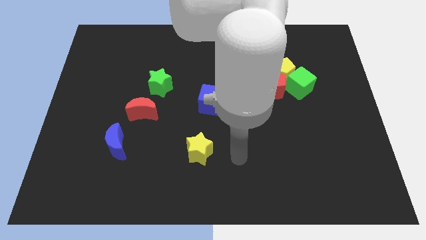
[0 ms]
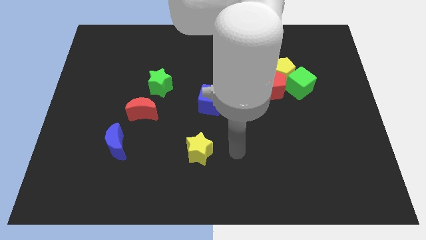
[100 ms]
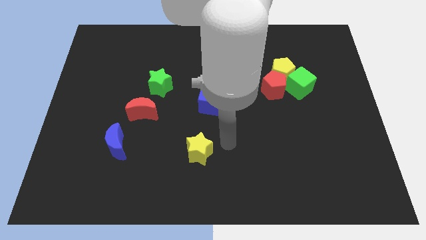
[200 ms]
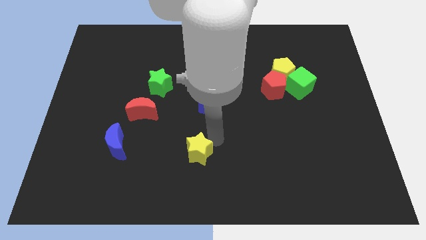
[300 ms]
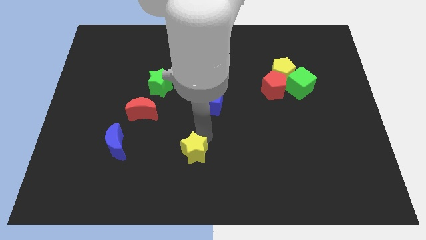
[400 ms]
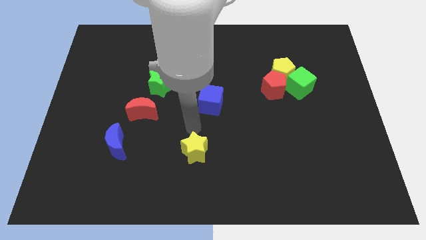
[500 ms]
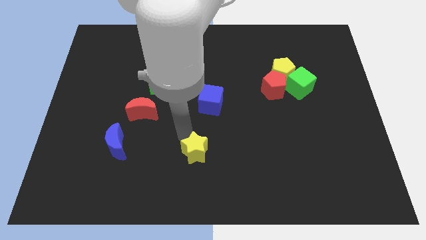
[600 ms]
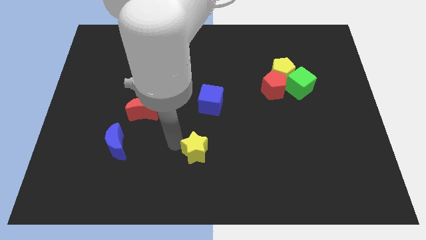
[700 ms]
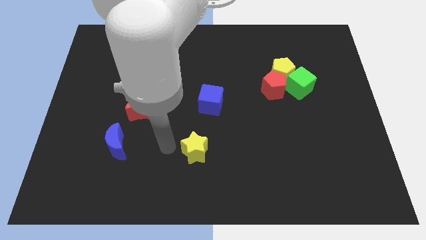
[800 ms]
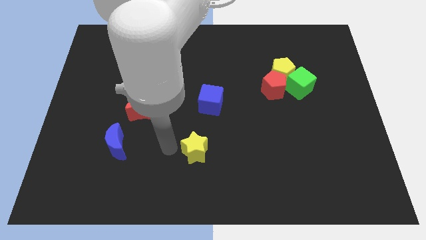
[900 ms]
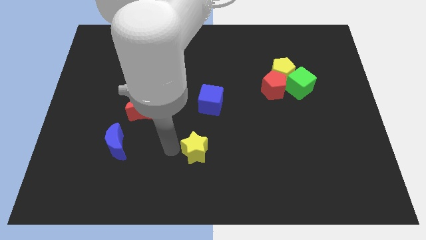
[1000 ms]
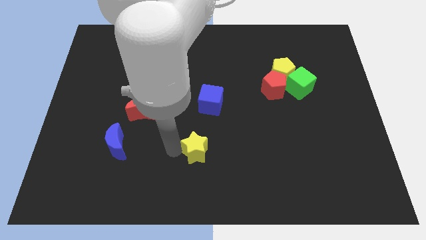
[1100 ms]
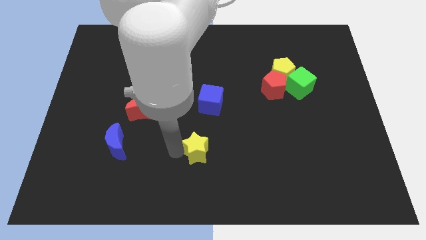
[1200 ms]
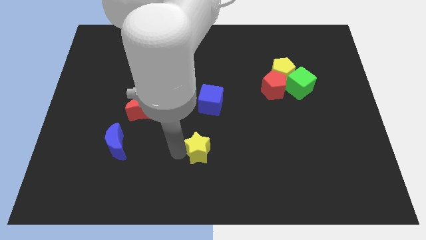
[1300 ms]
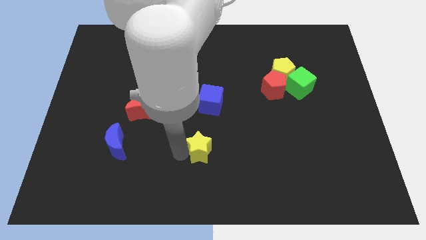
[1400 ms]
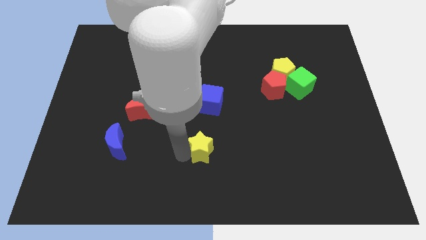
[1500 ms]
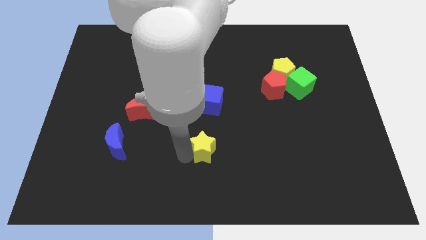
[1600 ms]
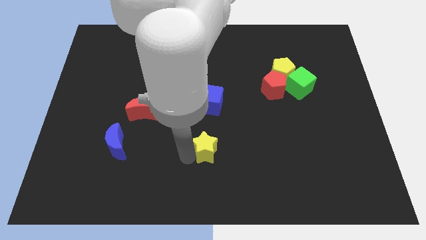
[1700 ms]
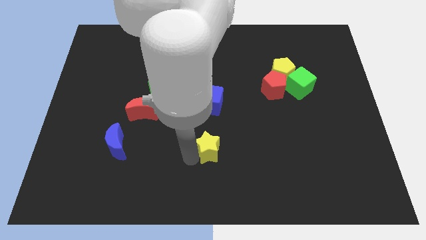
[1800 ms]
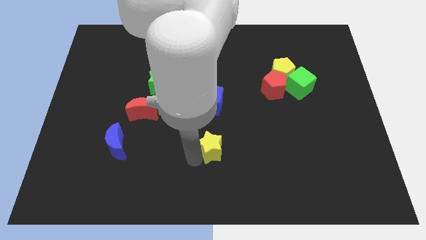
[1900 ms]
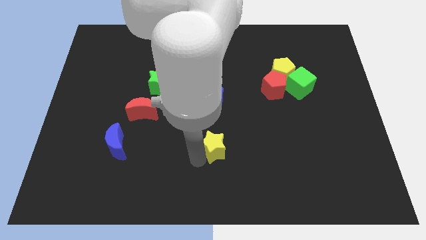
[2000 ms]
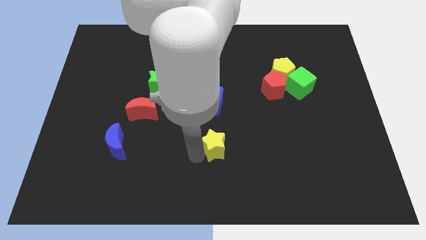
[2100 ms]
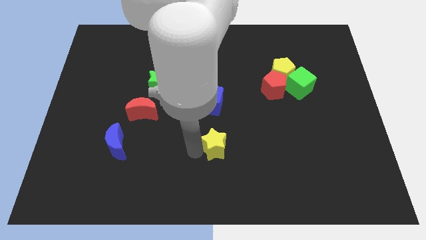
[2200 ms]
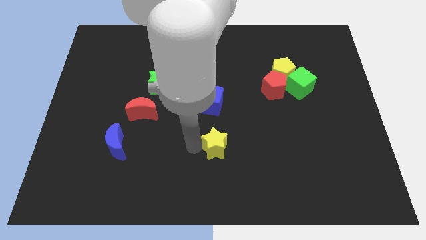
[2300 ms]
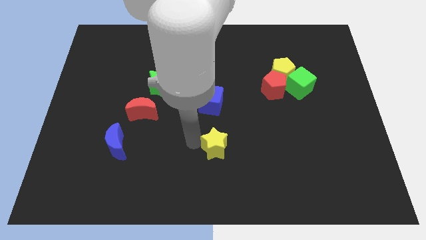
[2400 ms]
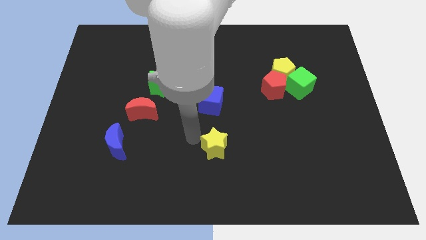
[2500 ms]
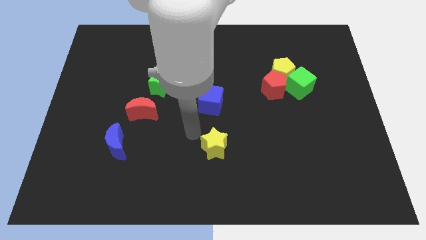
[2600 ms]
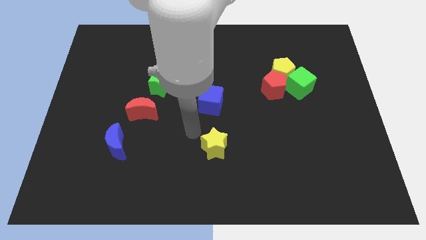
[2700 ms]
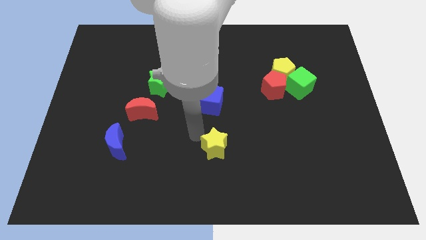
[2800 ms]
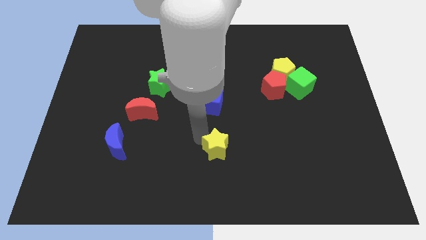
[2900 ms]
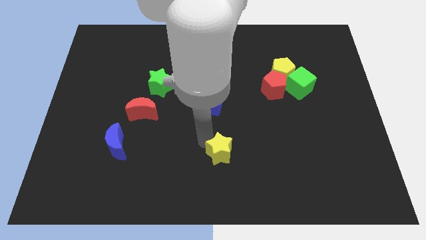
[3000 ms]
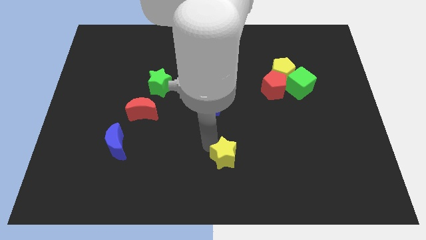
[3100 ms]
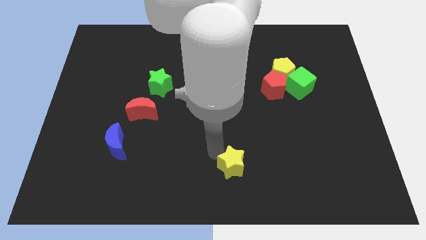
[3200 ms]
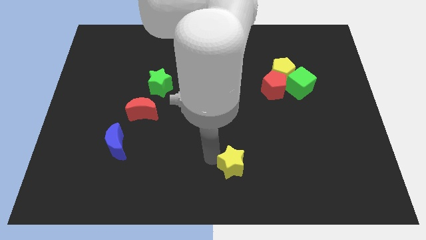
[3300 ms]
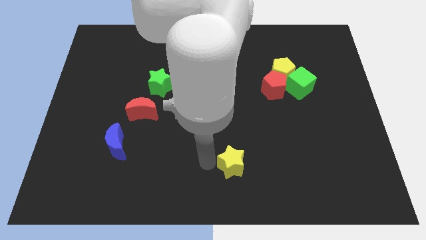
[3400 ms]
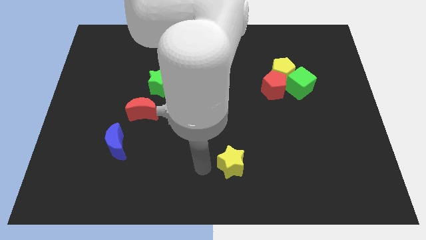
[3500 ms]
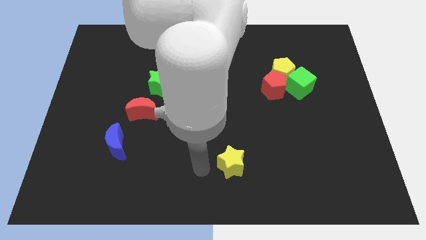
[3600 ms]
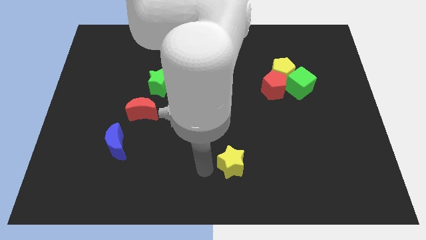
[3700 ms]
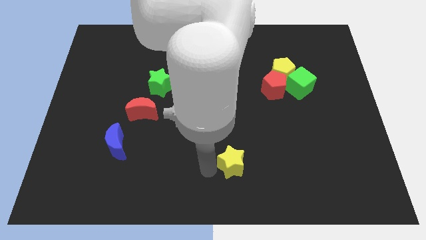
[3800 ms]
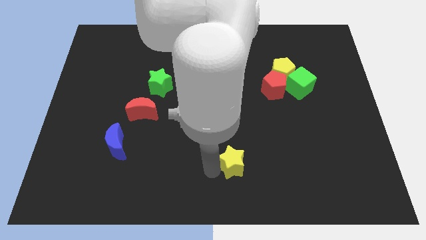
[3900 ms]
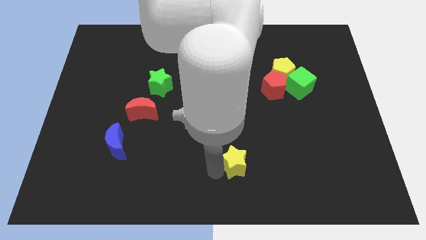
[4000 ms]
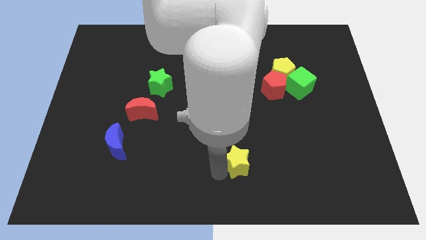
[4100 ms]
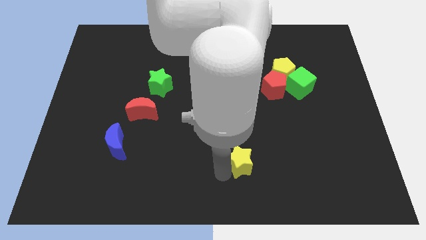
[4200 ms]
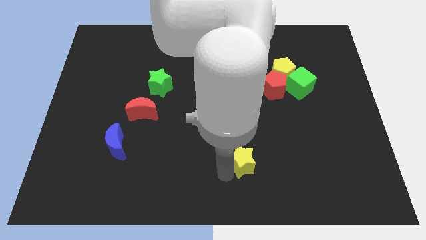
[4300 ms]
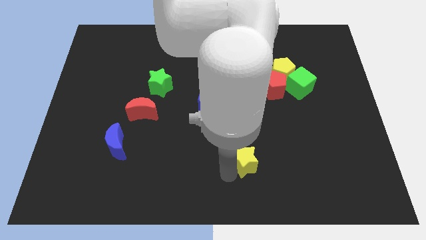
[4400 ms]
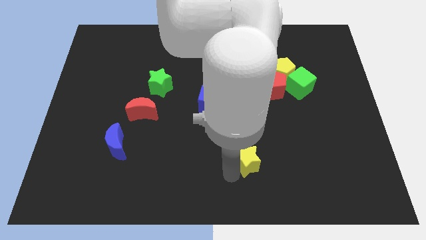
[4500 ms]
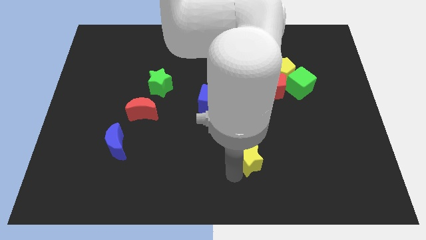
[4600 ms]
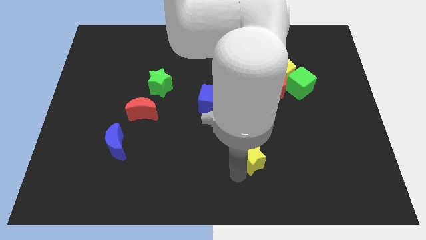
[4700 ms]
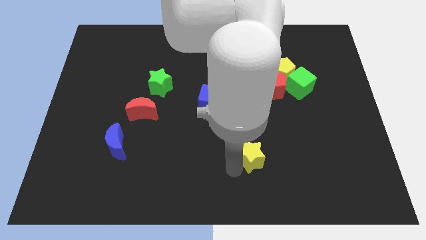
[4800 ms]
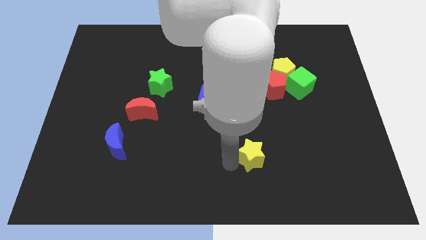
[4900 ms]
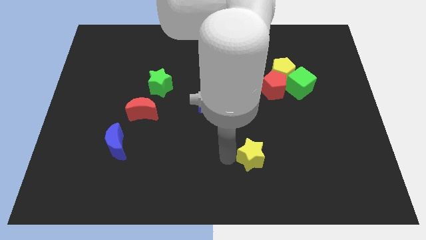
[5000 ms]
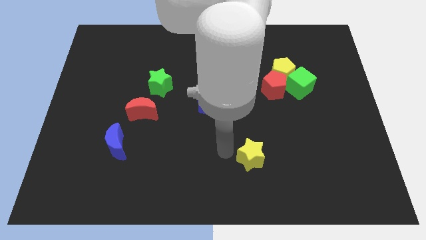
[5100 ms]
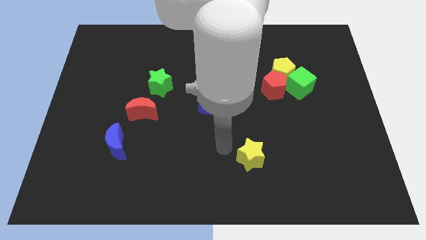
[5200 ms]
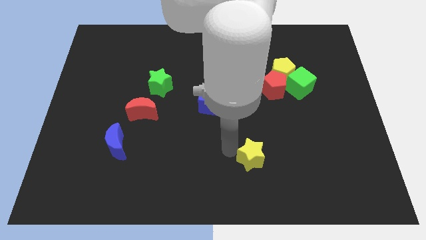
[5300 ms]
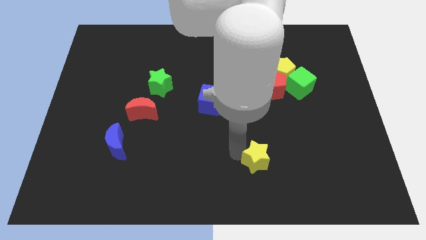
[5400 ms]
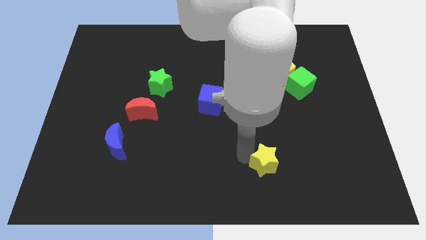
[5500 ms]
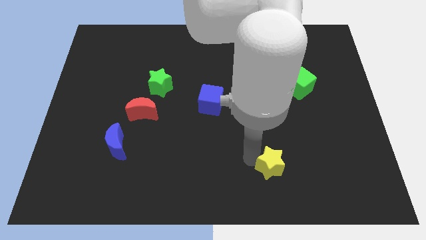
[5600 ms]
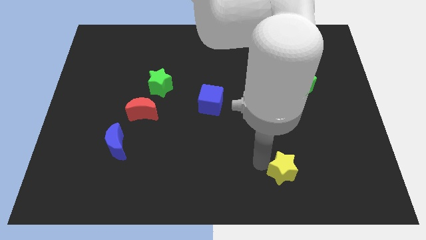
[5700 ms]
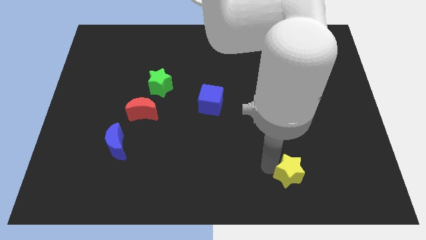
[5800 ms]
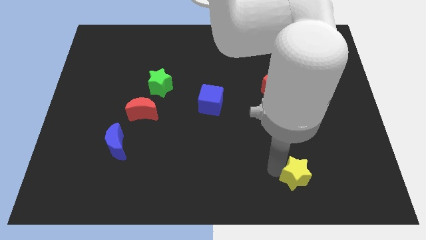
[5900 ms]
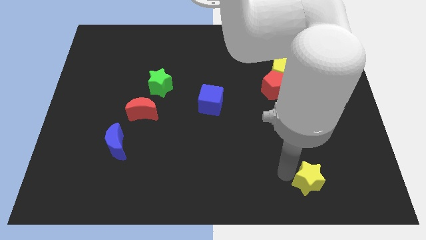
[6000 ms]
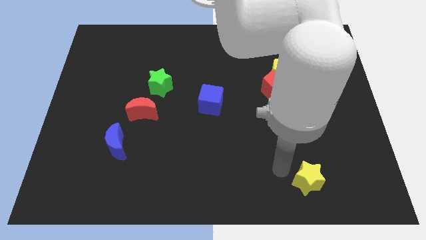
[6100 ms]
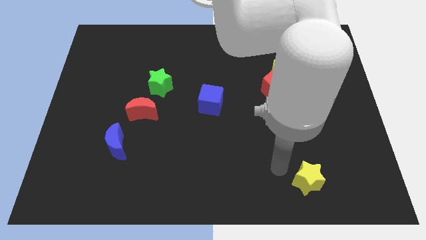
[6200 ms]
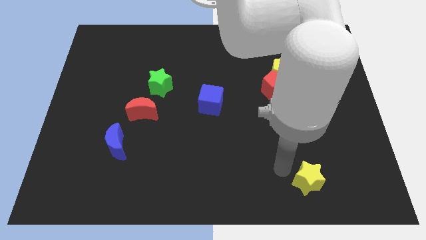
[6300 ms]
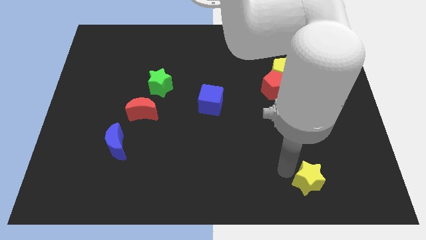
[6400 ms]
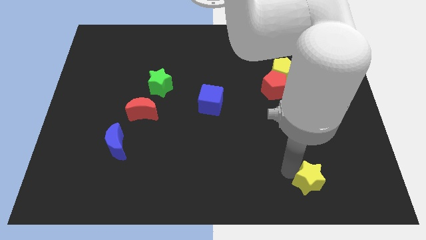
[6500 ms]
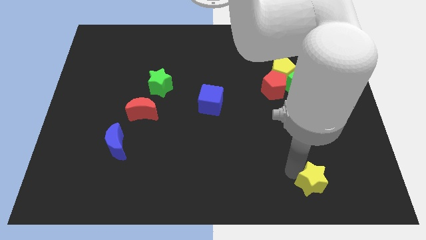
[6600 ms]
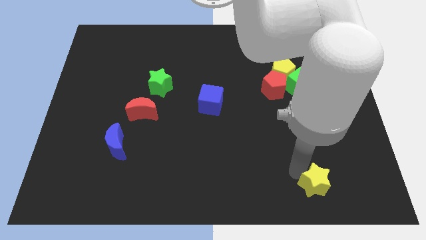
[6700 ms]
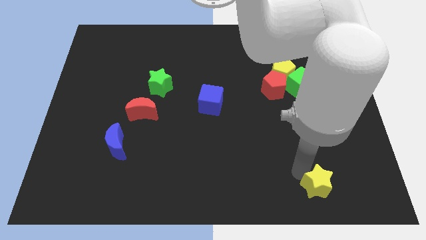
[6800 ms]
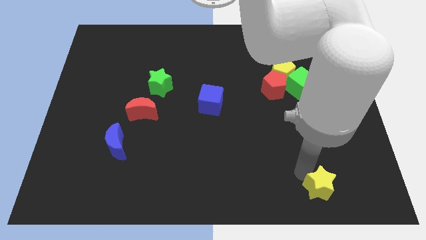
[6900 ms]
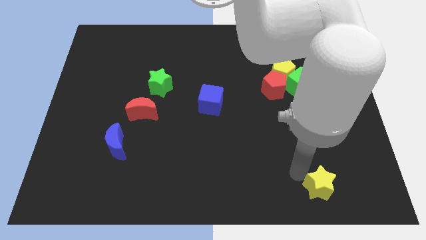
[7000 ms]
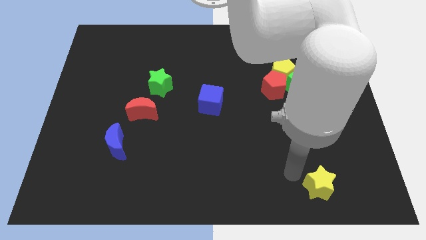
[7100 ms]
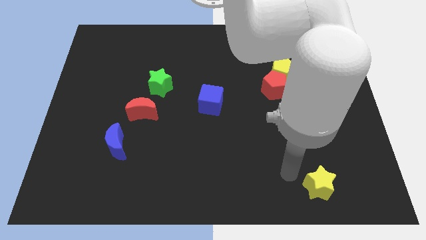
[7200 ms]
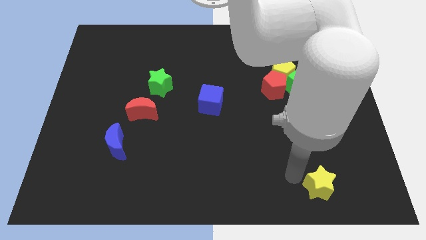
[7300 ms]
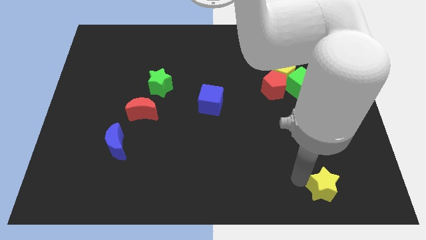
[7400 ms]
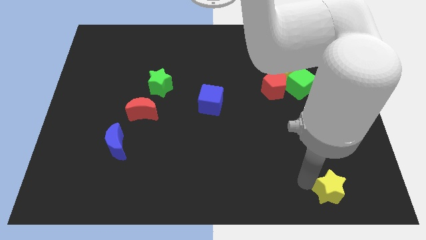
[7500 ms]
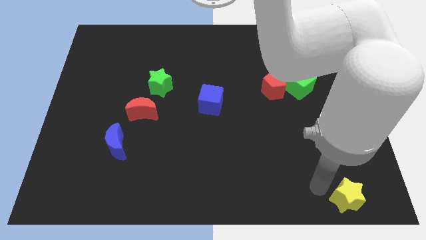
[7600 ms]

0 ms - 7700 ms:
put the yellow star to the bottom right of the board
